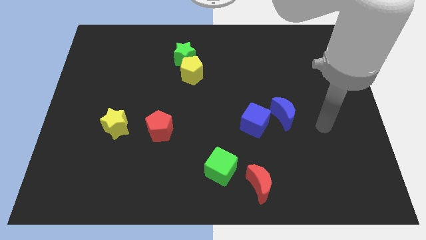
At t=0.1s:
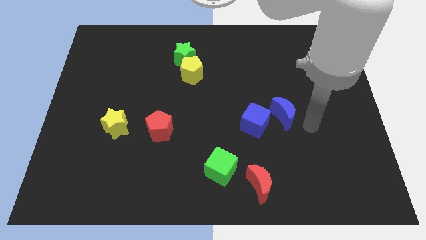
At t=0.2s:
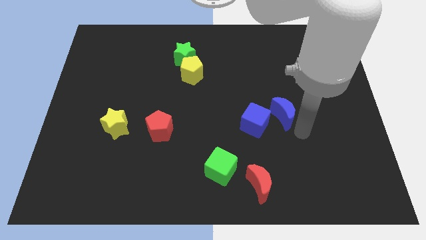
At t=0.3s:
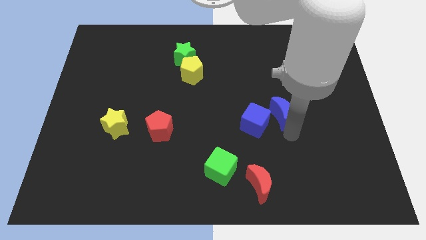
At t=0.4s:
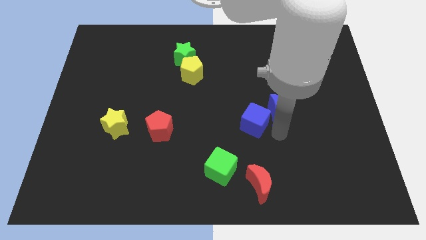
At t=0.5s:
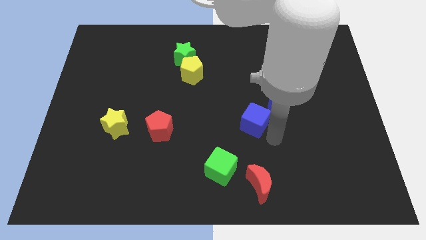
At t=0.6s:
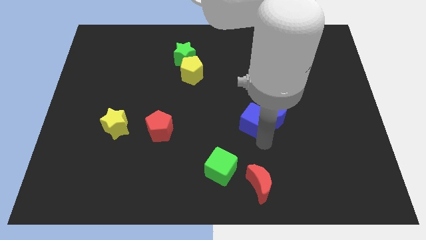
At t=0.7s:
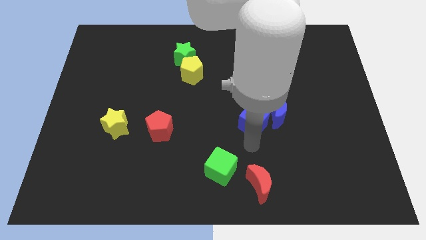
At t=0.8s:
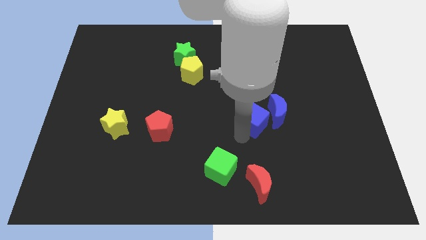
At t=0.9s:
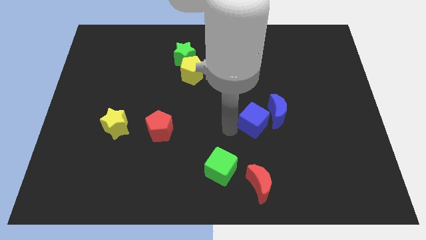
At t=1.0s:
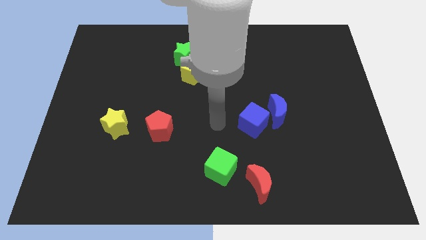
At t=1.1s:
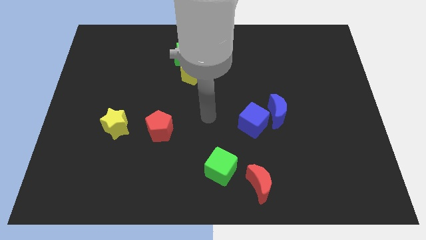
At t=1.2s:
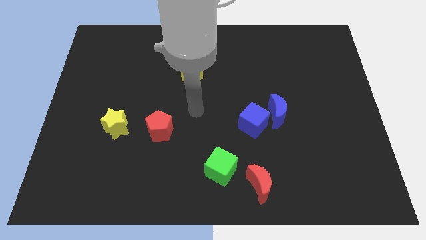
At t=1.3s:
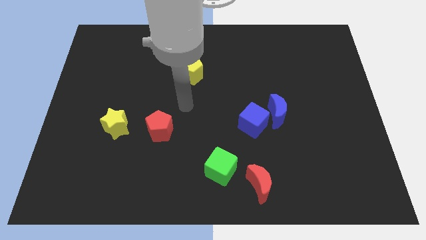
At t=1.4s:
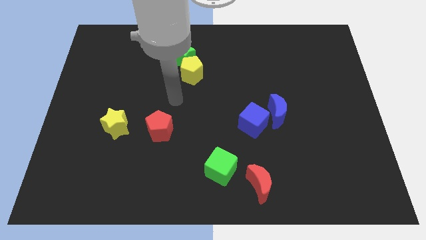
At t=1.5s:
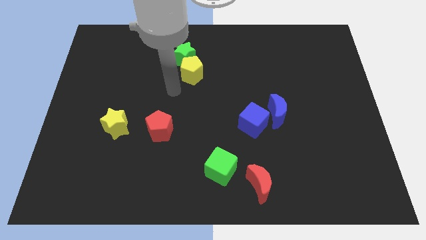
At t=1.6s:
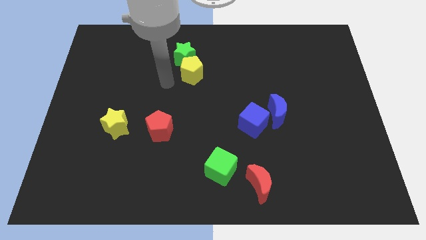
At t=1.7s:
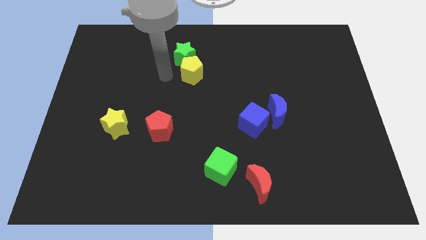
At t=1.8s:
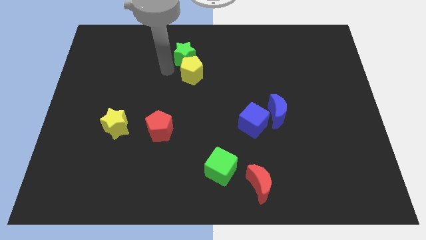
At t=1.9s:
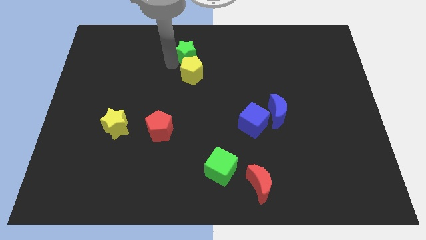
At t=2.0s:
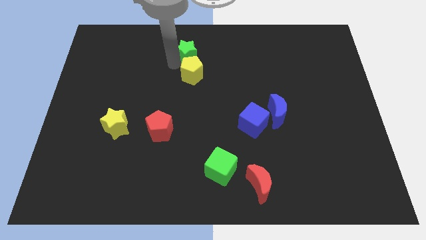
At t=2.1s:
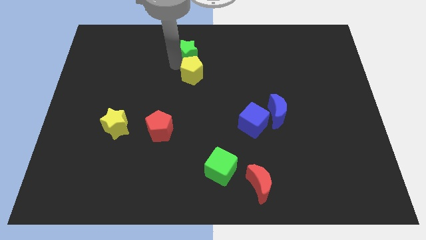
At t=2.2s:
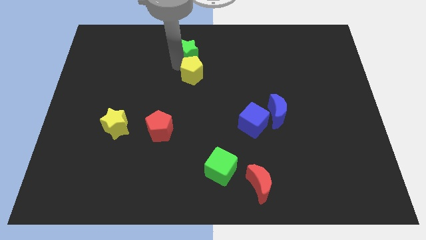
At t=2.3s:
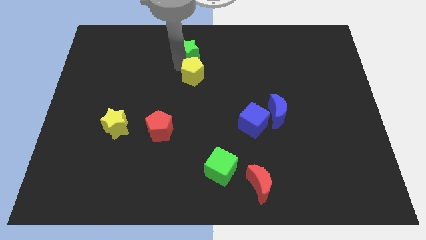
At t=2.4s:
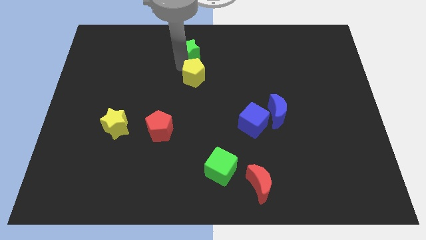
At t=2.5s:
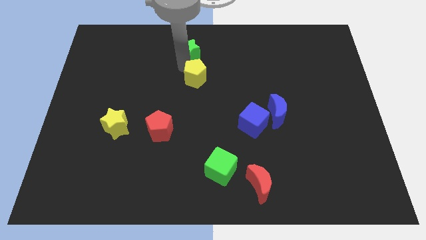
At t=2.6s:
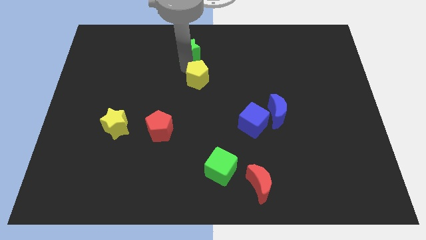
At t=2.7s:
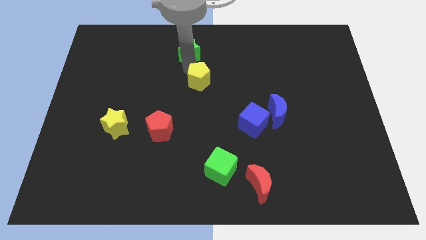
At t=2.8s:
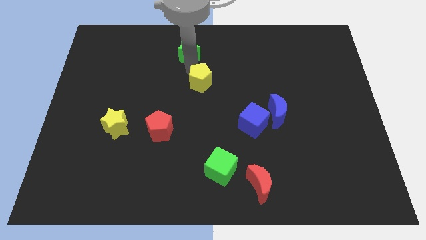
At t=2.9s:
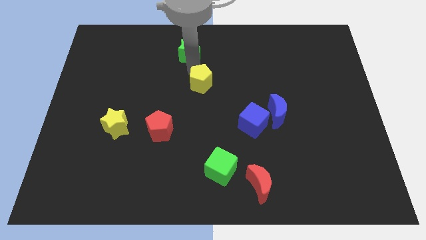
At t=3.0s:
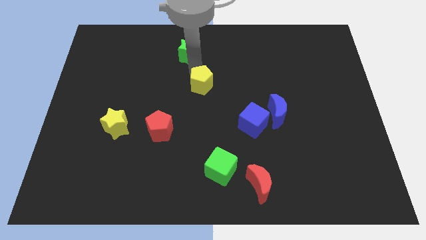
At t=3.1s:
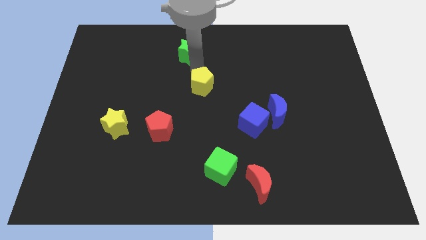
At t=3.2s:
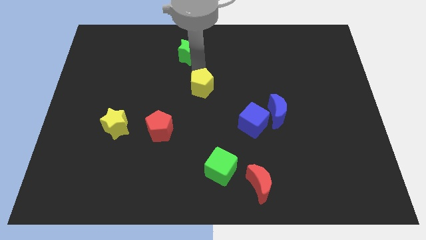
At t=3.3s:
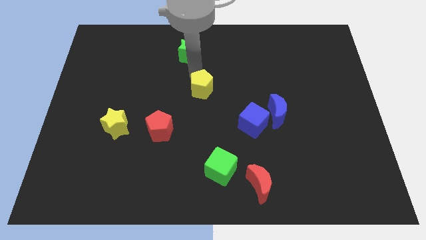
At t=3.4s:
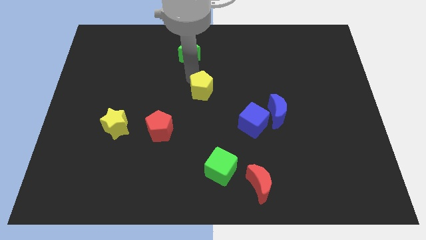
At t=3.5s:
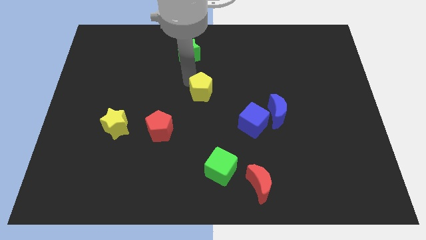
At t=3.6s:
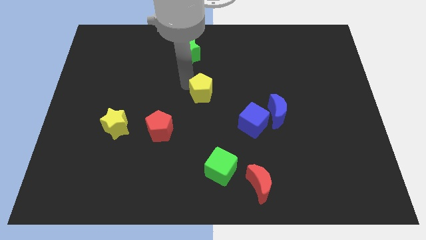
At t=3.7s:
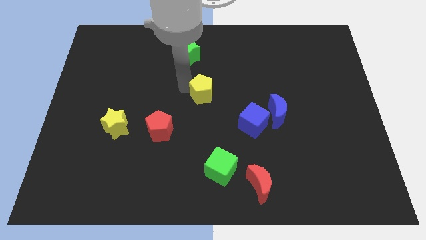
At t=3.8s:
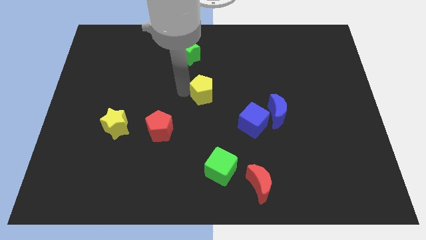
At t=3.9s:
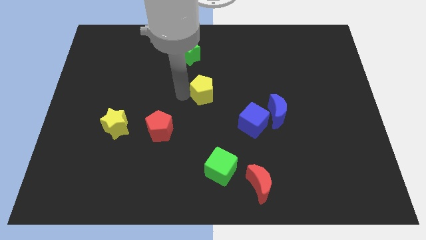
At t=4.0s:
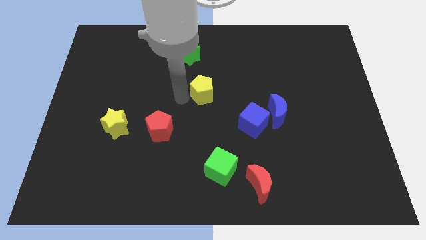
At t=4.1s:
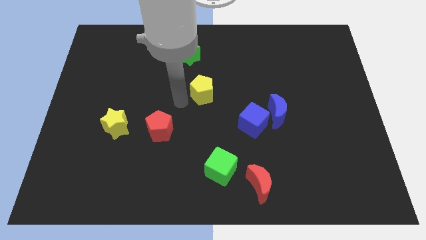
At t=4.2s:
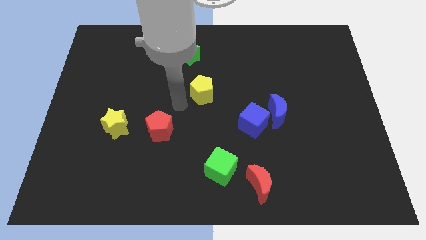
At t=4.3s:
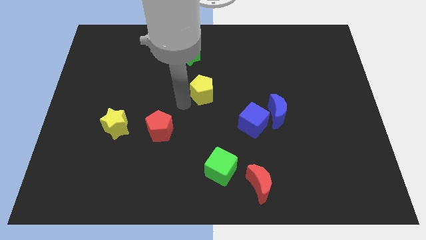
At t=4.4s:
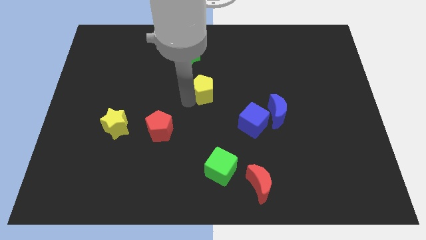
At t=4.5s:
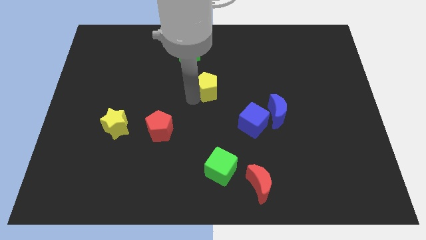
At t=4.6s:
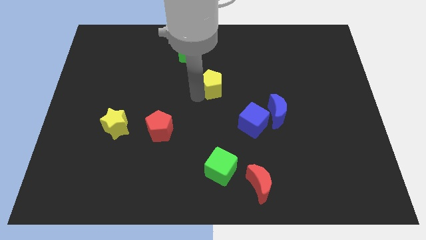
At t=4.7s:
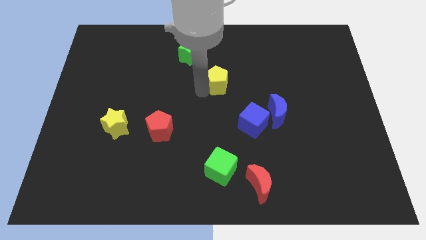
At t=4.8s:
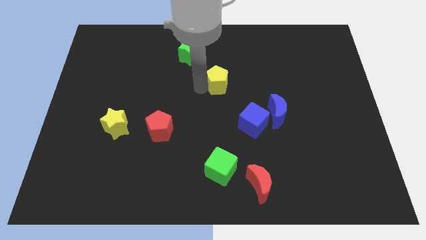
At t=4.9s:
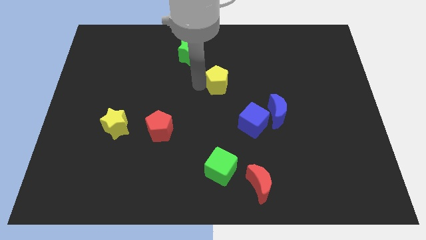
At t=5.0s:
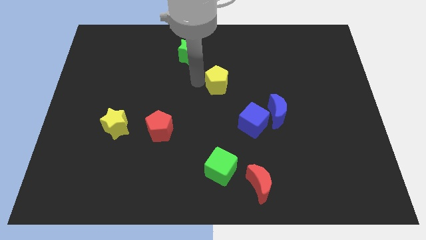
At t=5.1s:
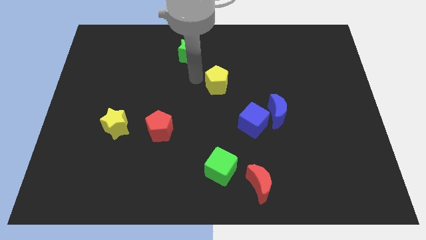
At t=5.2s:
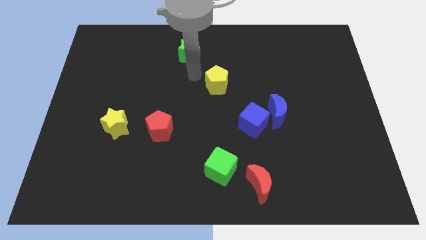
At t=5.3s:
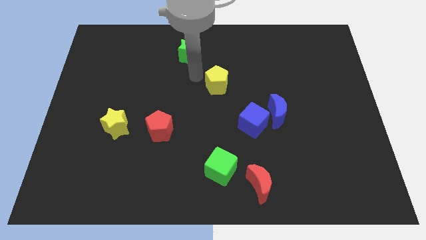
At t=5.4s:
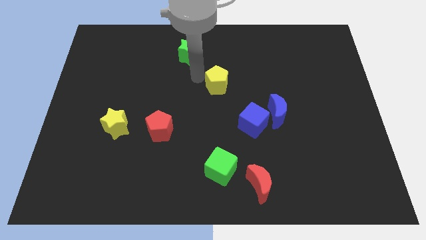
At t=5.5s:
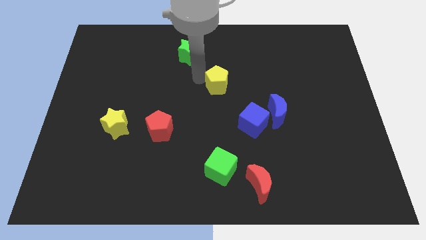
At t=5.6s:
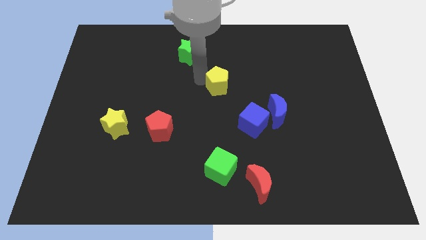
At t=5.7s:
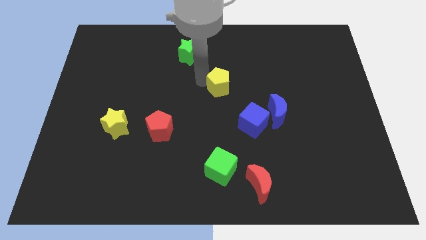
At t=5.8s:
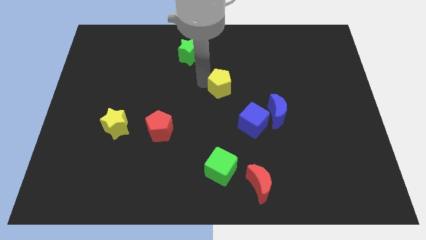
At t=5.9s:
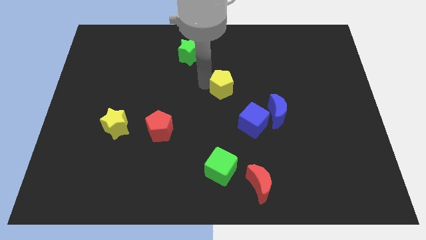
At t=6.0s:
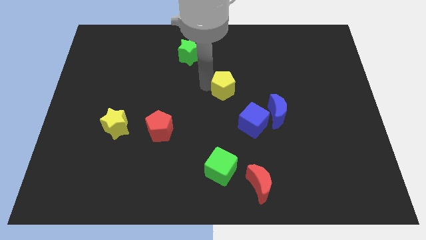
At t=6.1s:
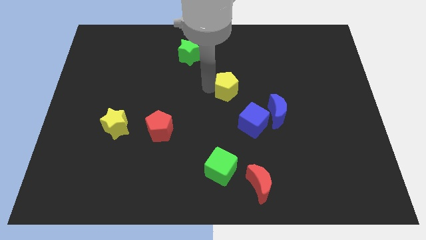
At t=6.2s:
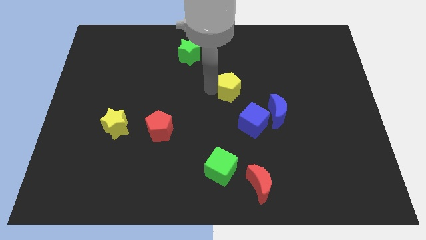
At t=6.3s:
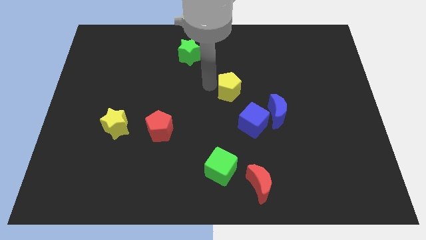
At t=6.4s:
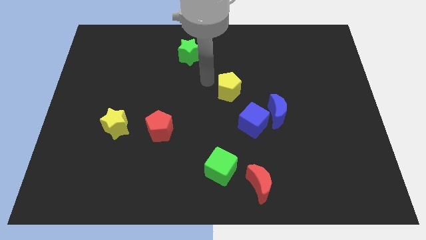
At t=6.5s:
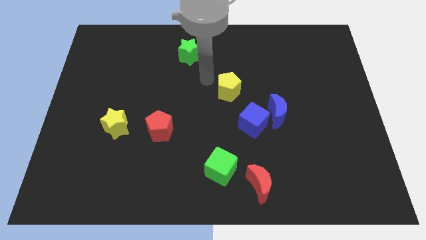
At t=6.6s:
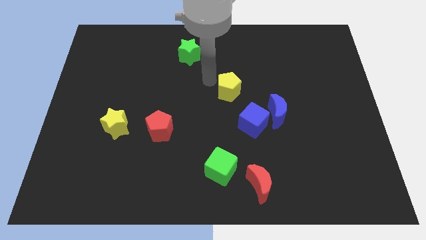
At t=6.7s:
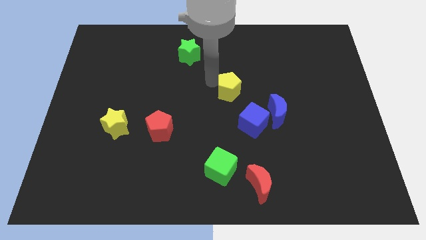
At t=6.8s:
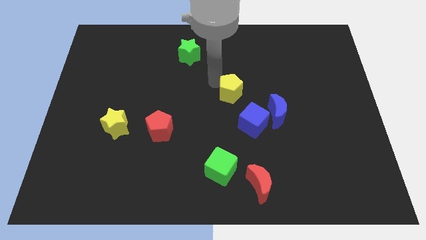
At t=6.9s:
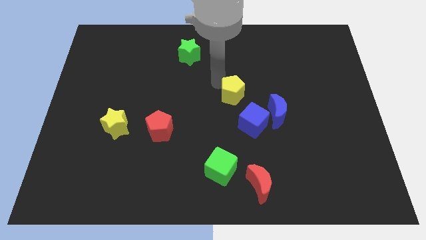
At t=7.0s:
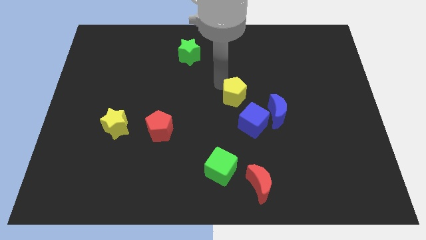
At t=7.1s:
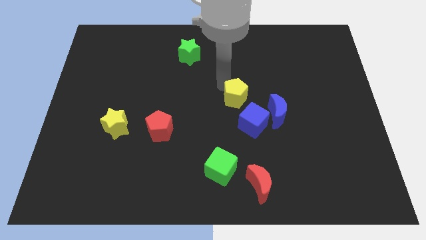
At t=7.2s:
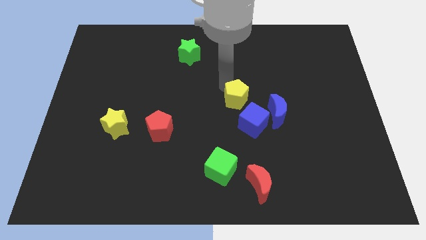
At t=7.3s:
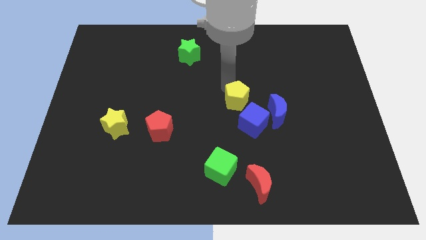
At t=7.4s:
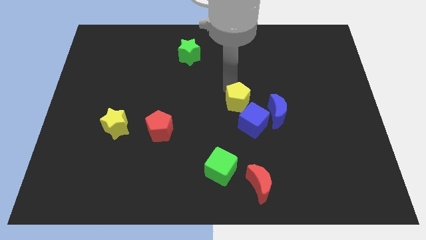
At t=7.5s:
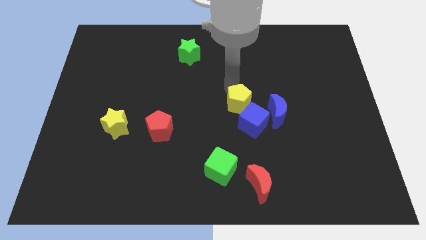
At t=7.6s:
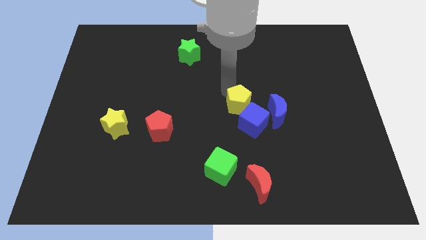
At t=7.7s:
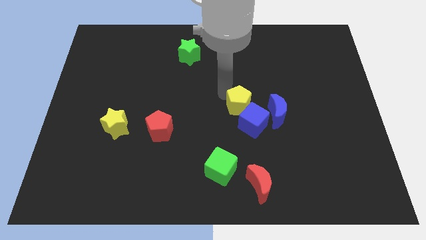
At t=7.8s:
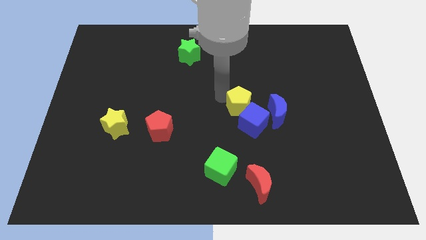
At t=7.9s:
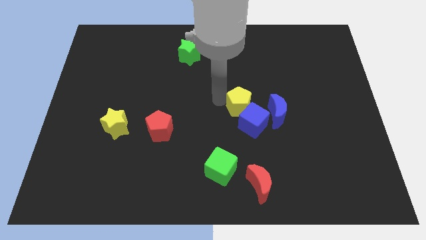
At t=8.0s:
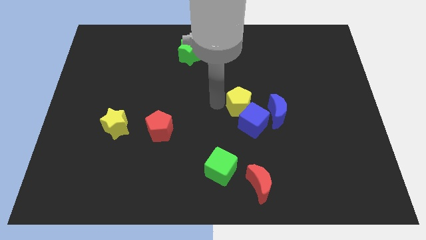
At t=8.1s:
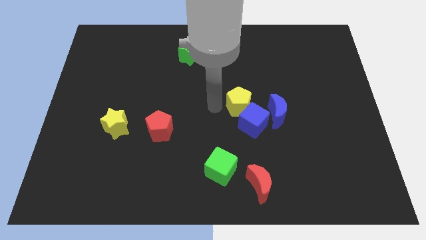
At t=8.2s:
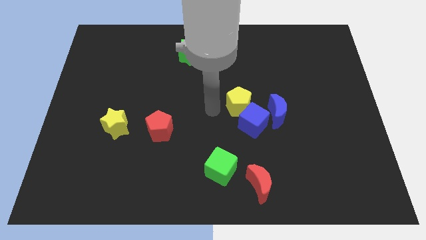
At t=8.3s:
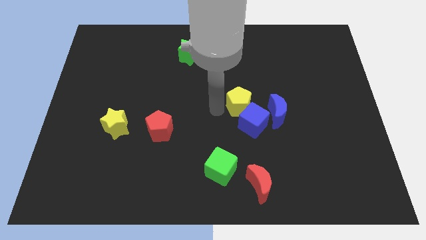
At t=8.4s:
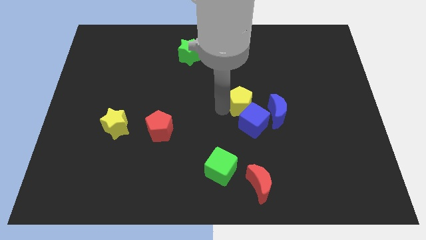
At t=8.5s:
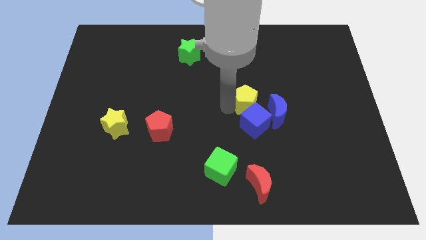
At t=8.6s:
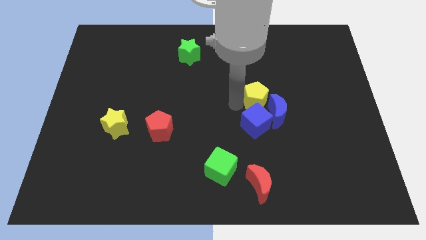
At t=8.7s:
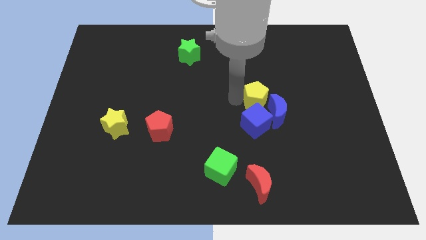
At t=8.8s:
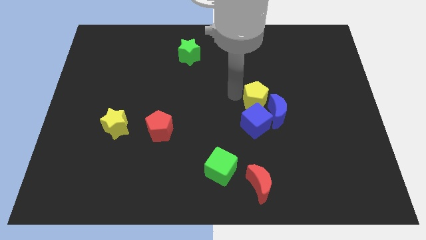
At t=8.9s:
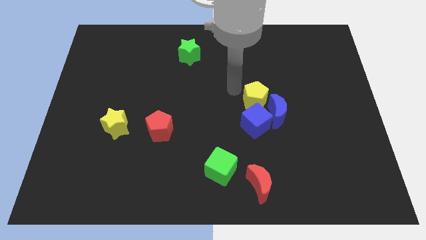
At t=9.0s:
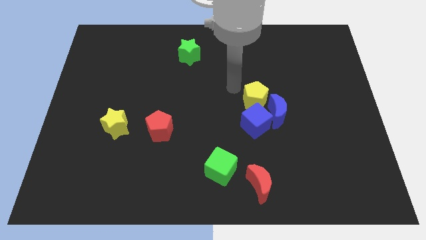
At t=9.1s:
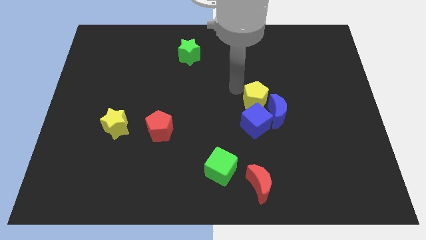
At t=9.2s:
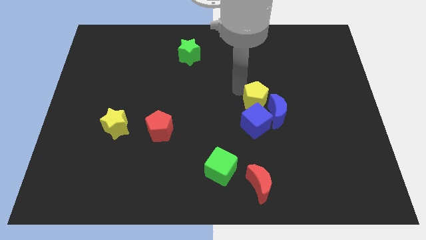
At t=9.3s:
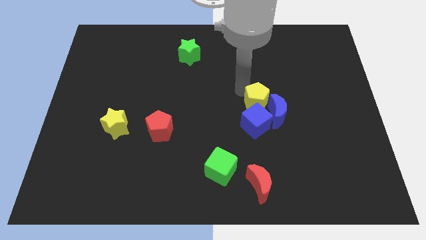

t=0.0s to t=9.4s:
move the yellow pentagon next to the blue moon
